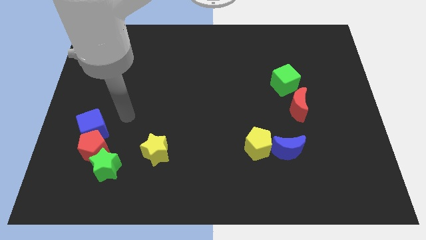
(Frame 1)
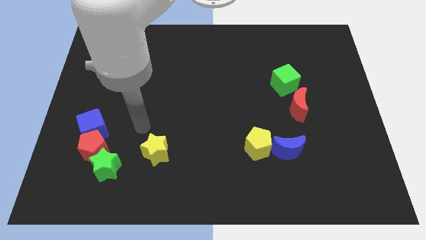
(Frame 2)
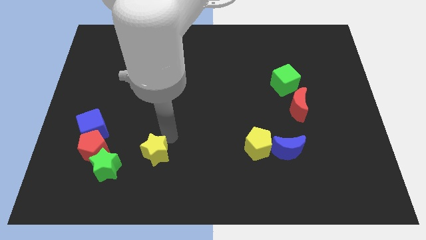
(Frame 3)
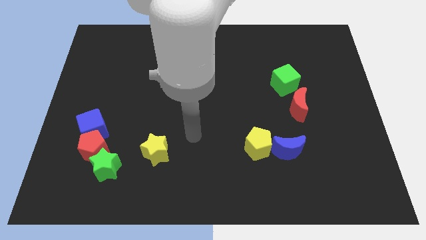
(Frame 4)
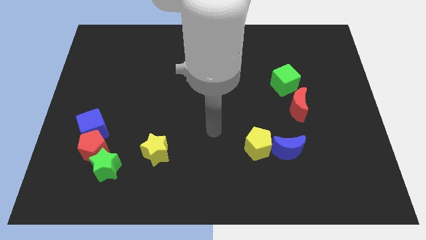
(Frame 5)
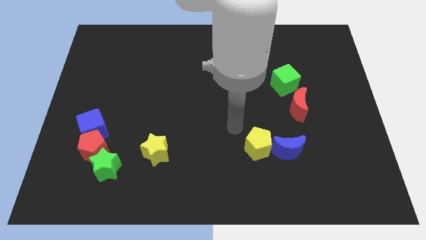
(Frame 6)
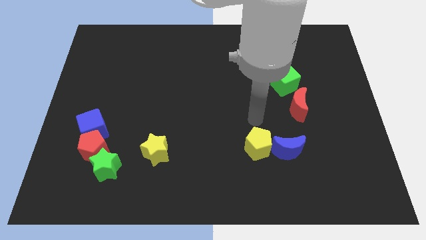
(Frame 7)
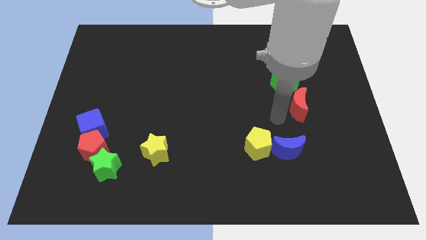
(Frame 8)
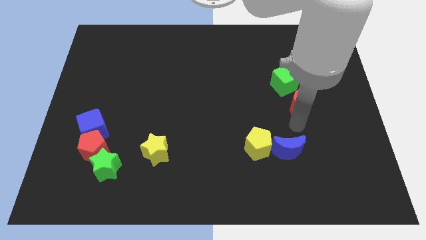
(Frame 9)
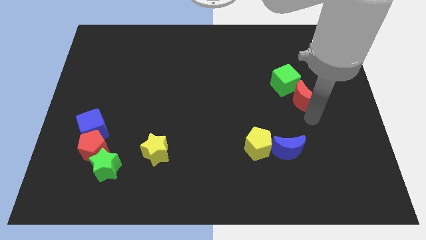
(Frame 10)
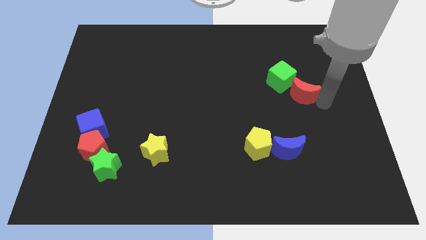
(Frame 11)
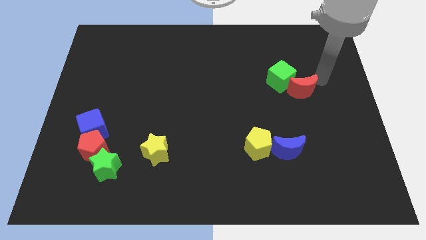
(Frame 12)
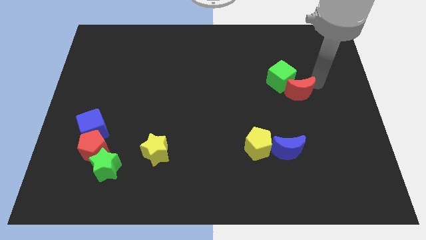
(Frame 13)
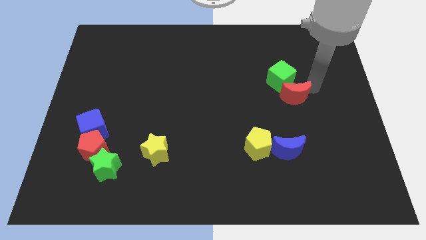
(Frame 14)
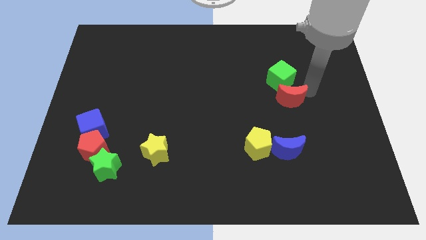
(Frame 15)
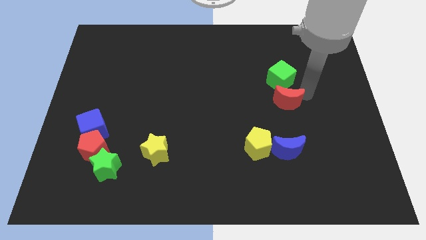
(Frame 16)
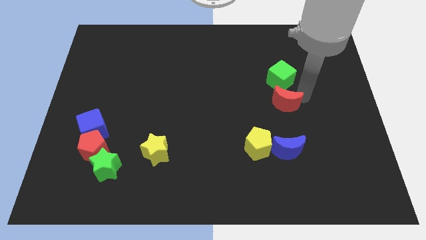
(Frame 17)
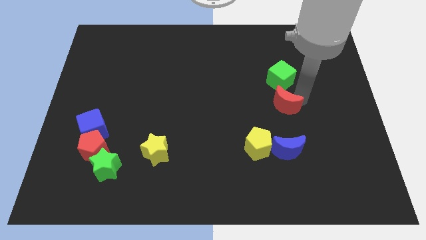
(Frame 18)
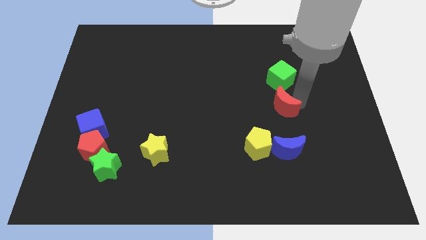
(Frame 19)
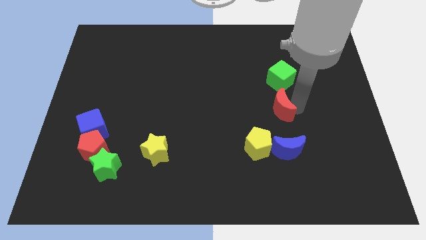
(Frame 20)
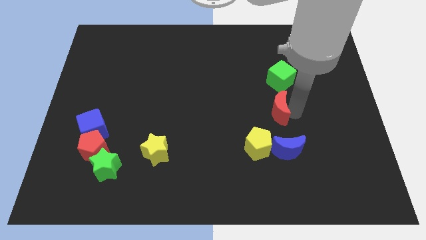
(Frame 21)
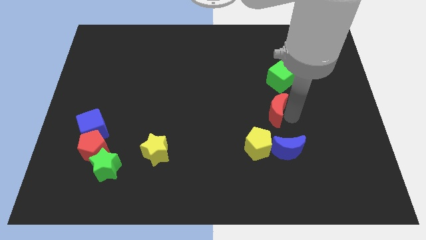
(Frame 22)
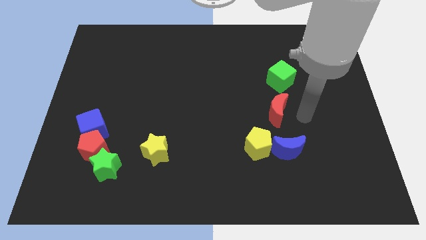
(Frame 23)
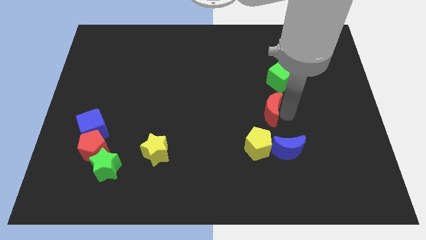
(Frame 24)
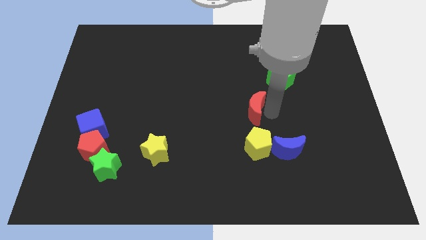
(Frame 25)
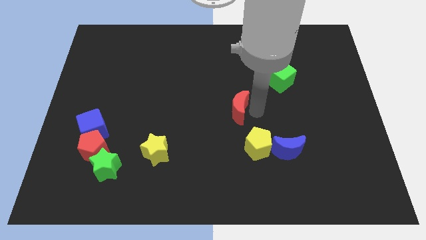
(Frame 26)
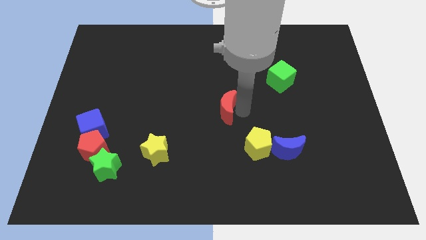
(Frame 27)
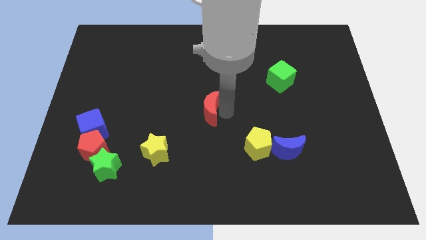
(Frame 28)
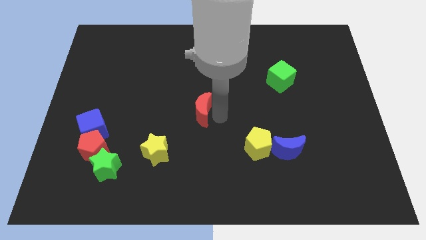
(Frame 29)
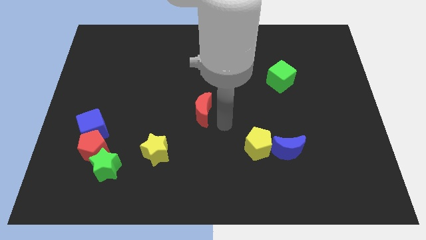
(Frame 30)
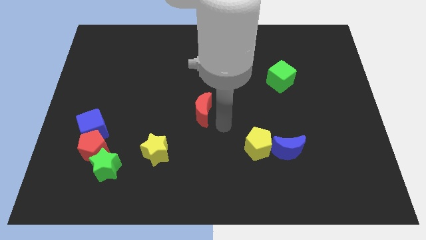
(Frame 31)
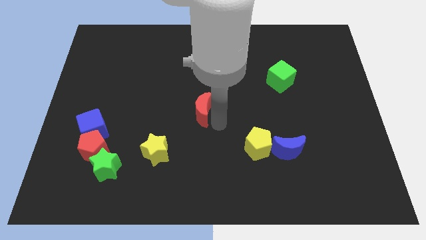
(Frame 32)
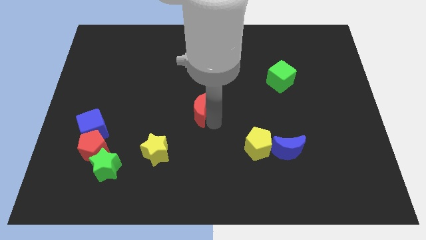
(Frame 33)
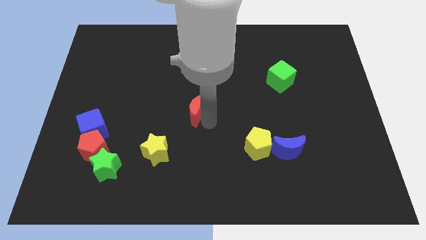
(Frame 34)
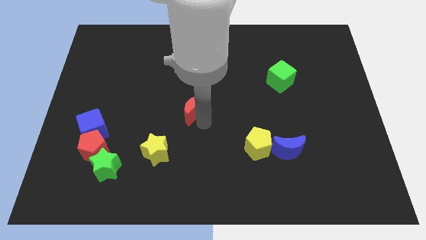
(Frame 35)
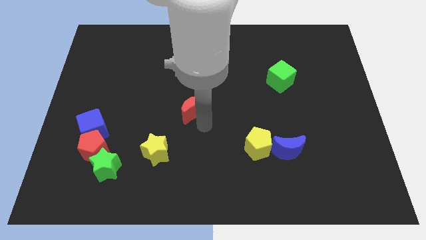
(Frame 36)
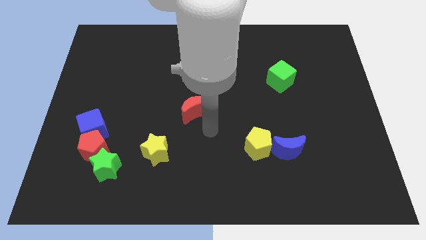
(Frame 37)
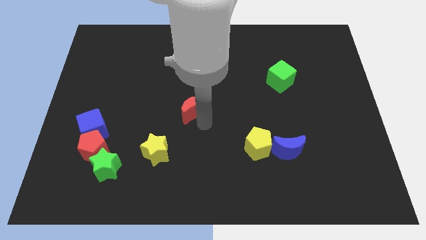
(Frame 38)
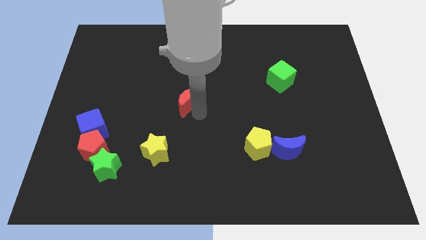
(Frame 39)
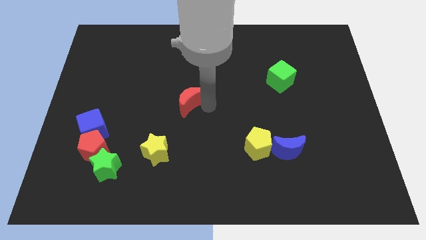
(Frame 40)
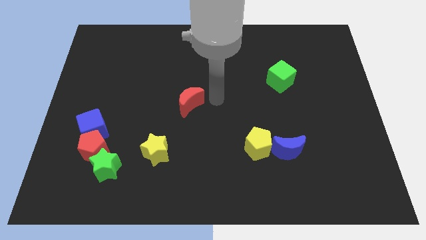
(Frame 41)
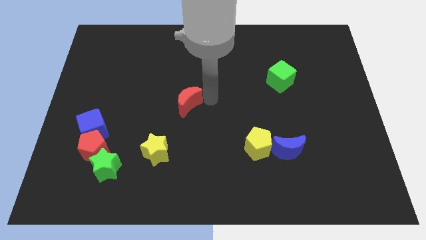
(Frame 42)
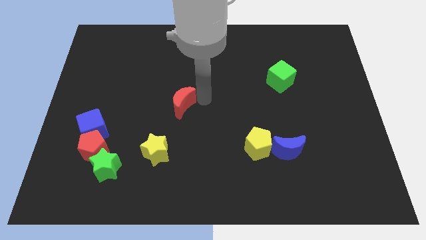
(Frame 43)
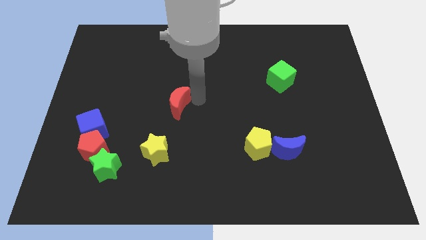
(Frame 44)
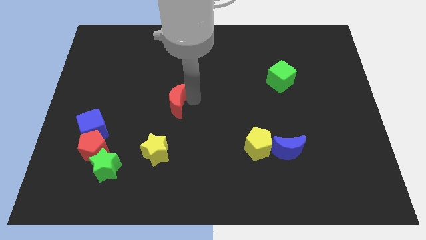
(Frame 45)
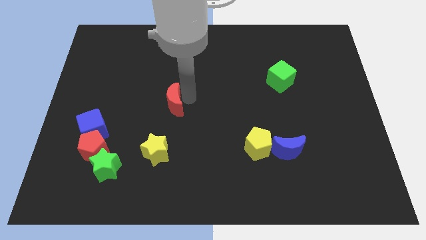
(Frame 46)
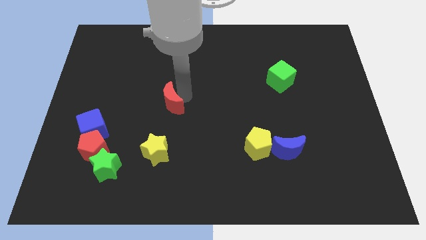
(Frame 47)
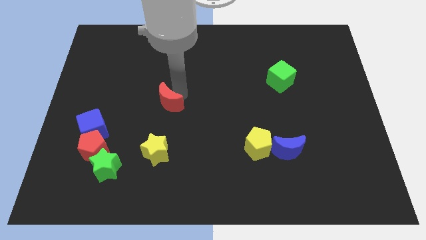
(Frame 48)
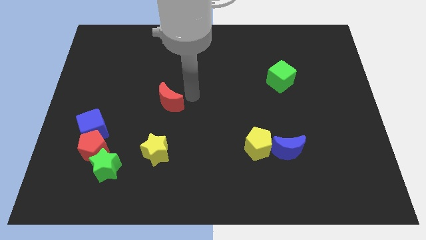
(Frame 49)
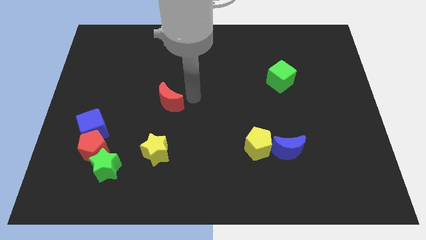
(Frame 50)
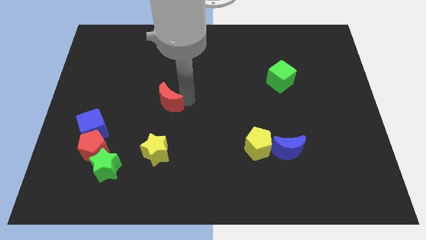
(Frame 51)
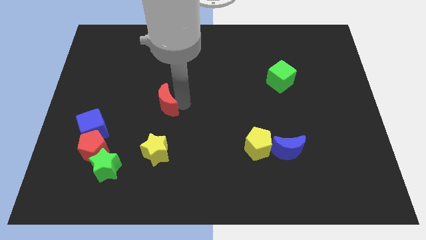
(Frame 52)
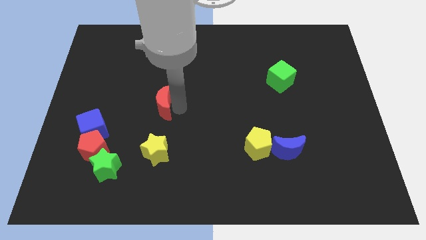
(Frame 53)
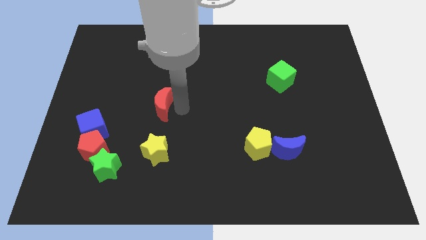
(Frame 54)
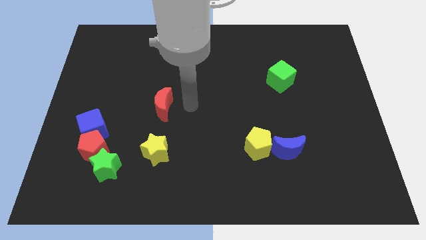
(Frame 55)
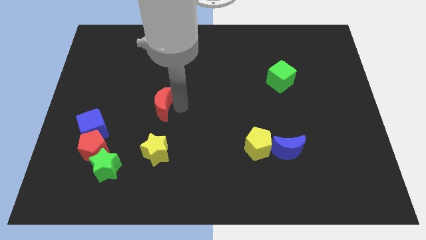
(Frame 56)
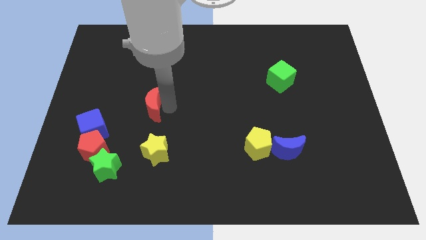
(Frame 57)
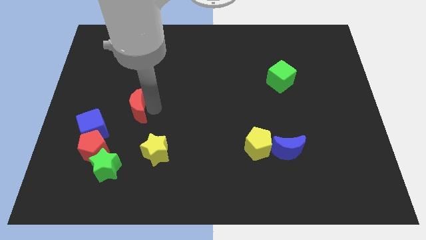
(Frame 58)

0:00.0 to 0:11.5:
move the red moon diagonally up and to the right of the blue cube

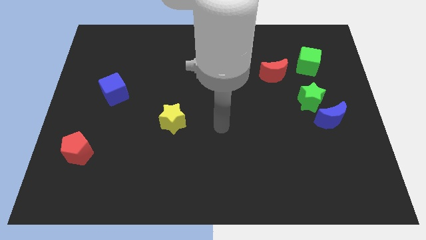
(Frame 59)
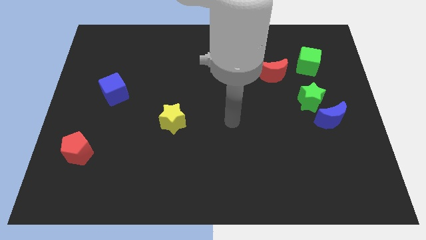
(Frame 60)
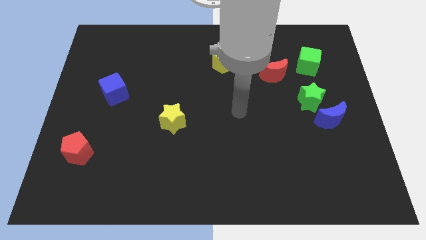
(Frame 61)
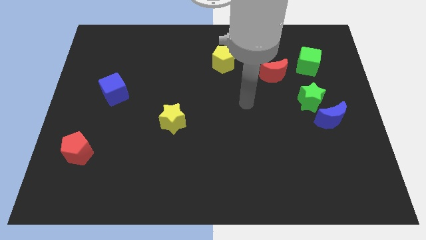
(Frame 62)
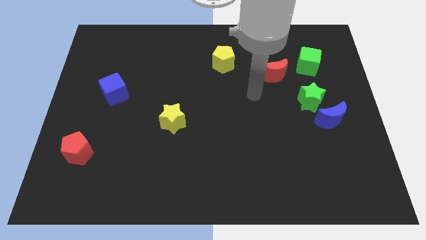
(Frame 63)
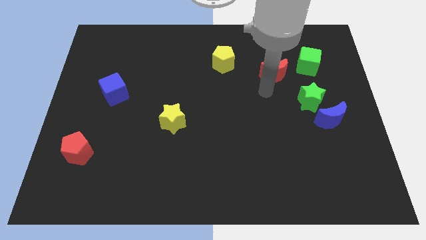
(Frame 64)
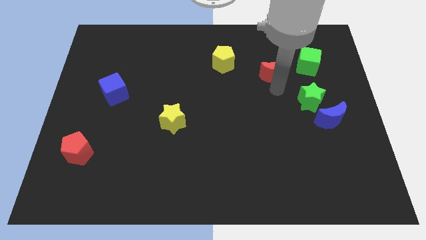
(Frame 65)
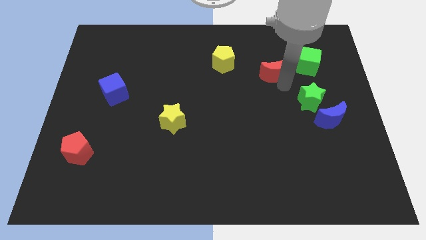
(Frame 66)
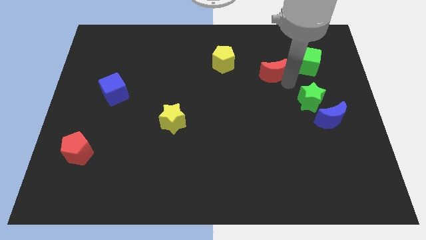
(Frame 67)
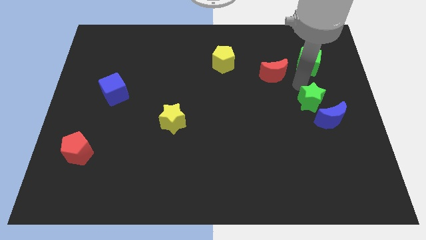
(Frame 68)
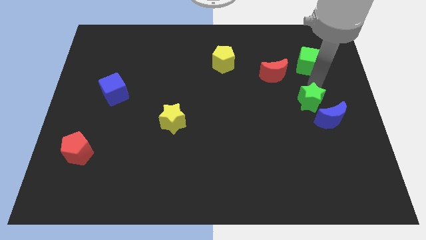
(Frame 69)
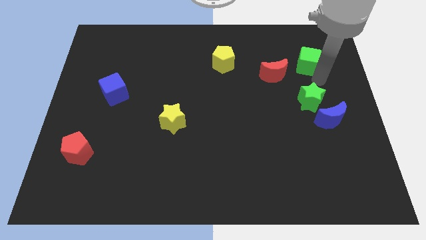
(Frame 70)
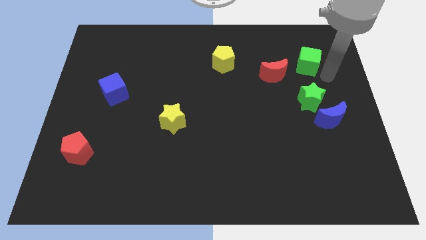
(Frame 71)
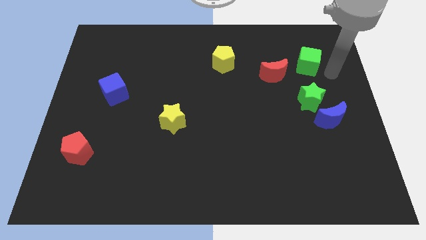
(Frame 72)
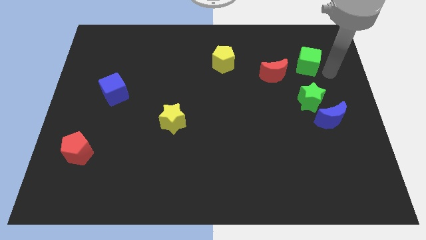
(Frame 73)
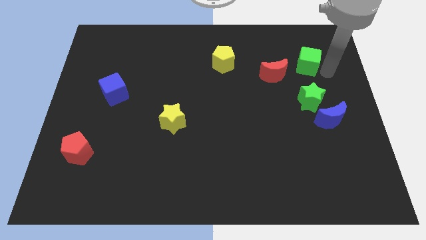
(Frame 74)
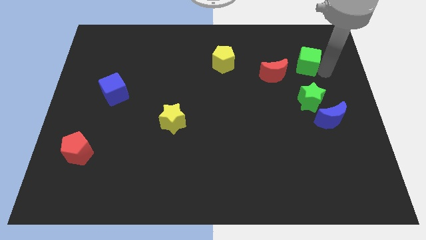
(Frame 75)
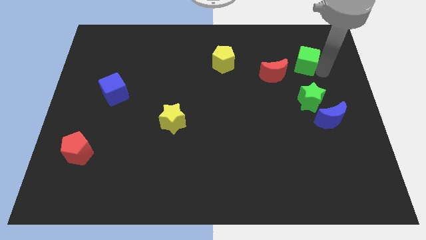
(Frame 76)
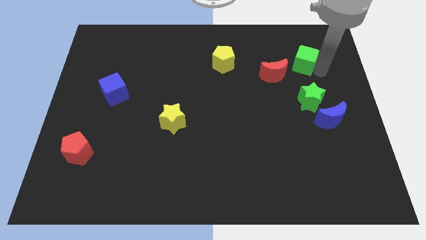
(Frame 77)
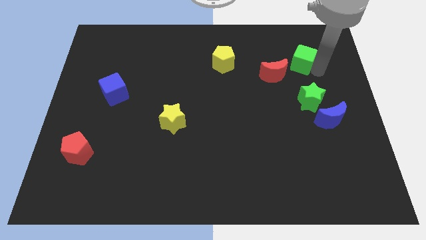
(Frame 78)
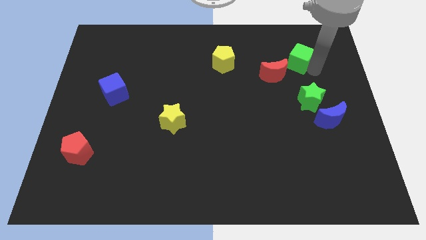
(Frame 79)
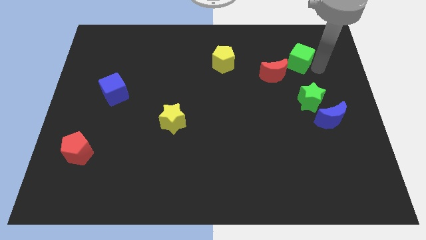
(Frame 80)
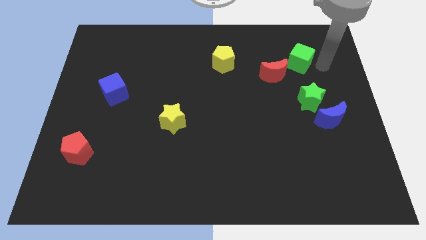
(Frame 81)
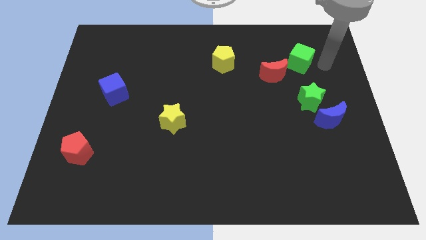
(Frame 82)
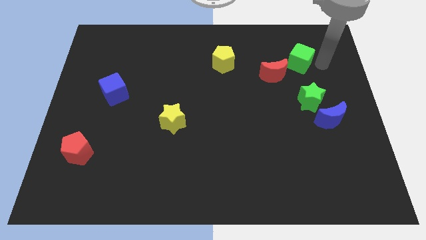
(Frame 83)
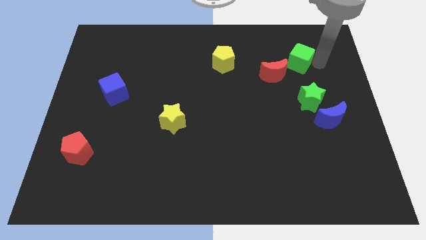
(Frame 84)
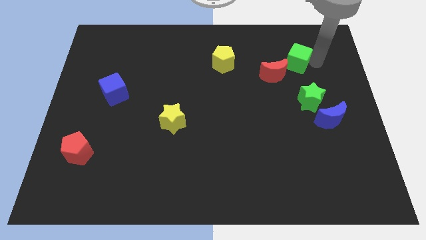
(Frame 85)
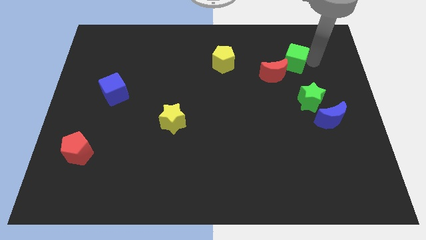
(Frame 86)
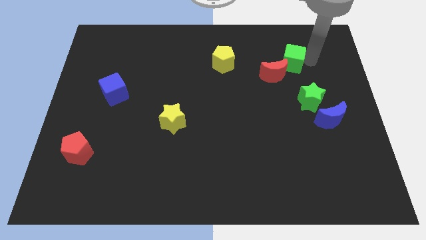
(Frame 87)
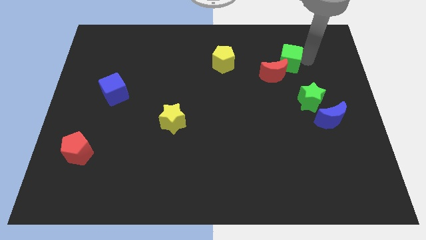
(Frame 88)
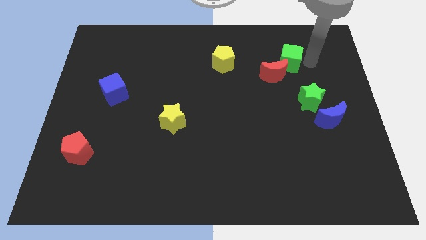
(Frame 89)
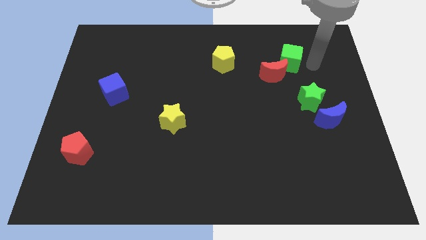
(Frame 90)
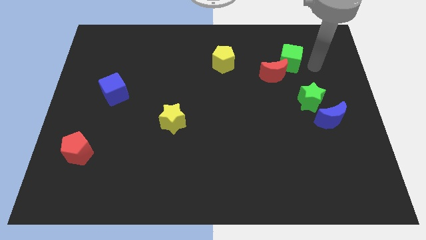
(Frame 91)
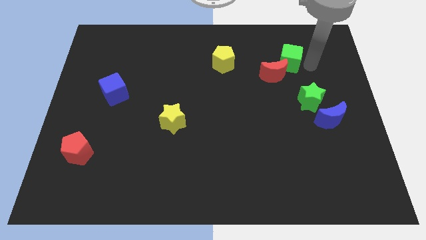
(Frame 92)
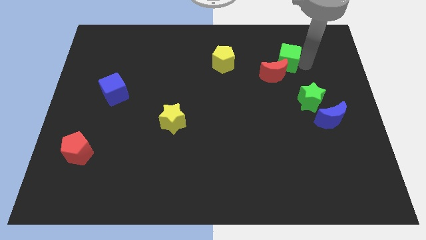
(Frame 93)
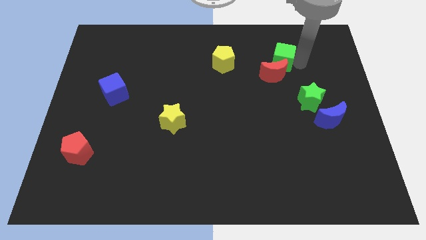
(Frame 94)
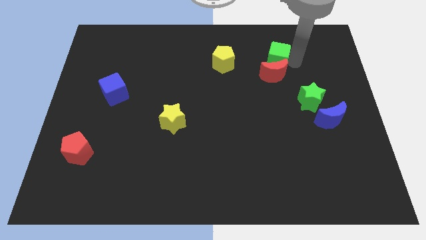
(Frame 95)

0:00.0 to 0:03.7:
put the green cube to the top left of the red moon
